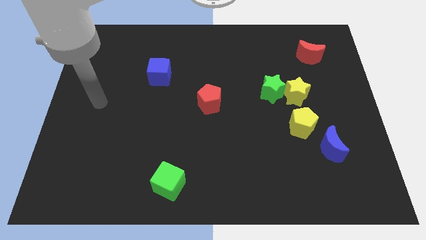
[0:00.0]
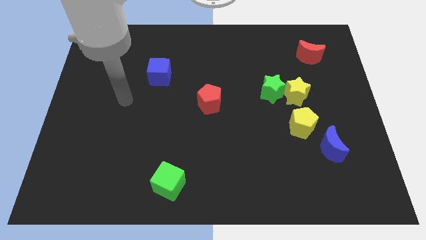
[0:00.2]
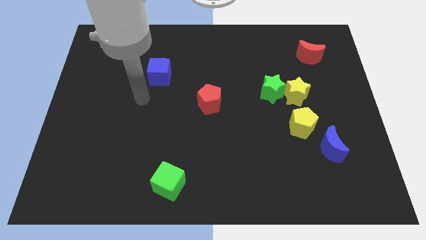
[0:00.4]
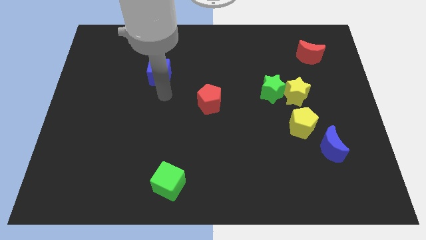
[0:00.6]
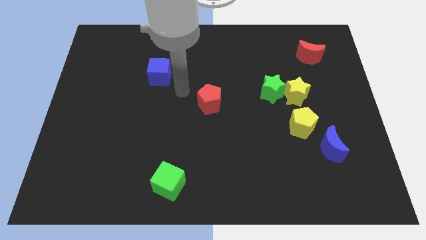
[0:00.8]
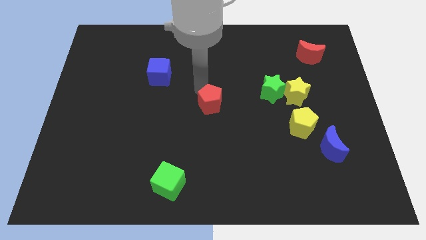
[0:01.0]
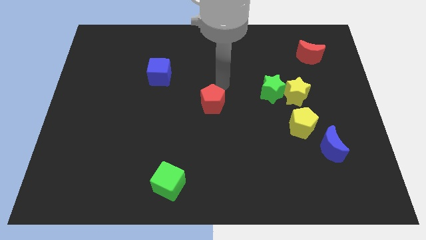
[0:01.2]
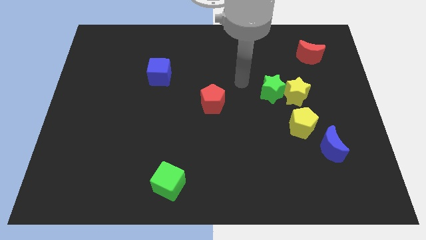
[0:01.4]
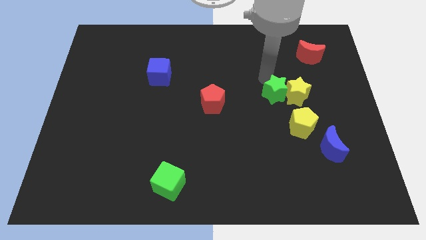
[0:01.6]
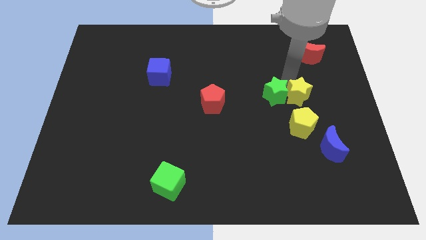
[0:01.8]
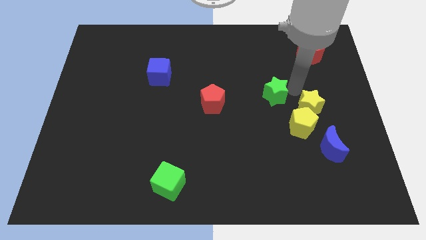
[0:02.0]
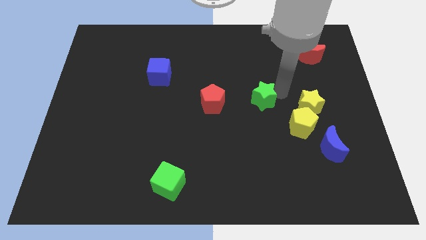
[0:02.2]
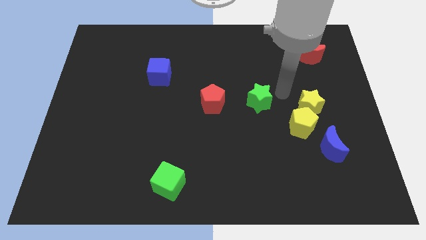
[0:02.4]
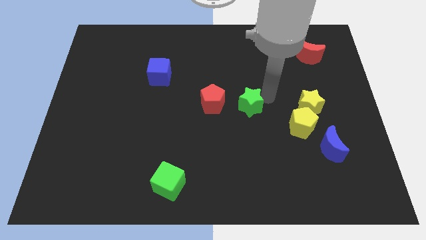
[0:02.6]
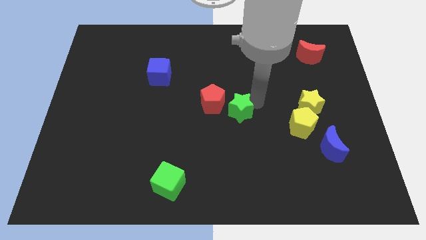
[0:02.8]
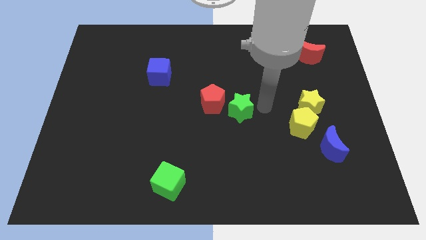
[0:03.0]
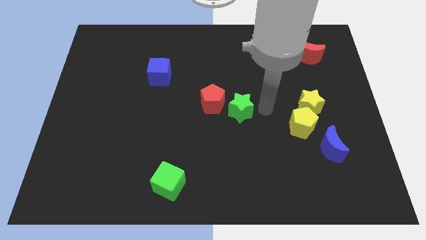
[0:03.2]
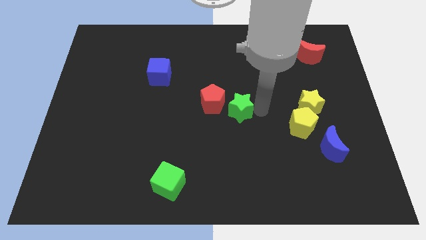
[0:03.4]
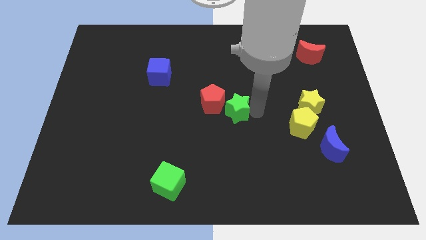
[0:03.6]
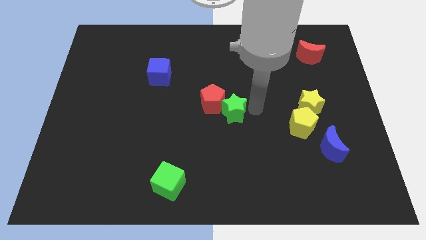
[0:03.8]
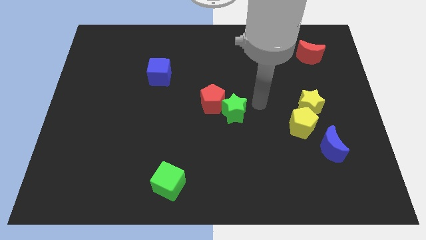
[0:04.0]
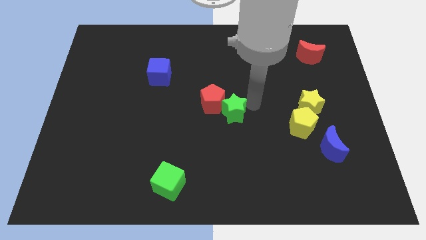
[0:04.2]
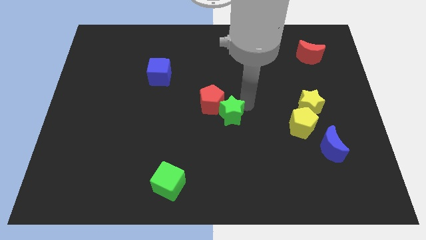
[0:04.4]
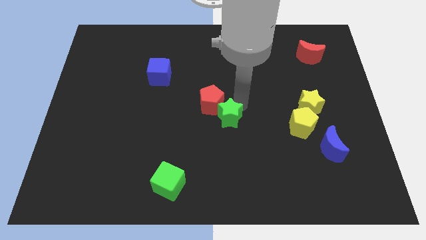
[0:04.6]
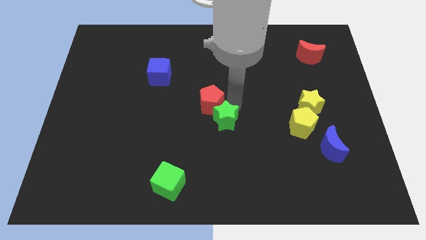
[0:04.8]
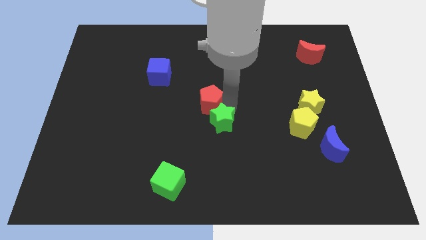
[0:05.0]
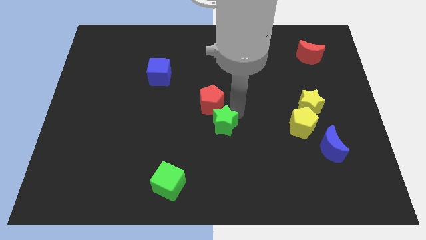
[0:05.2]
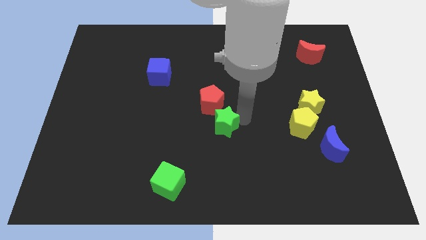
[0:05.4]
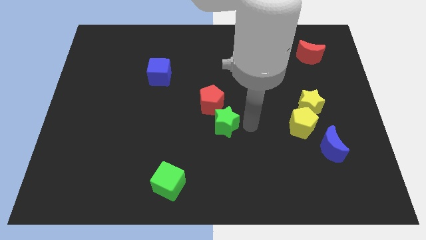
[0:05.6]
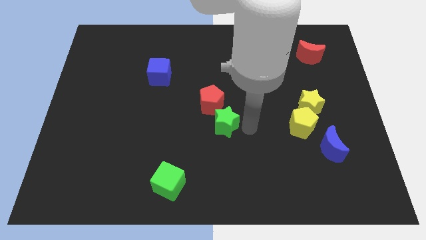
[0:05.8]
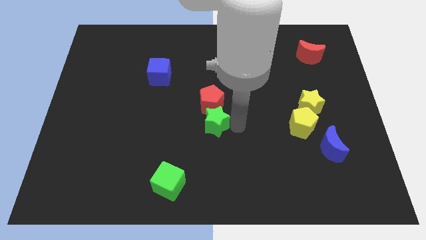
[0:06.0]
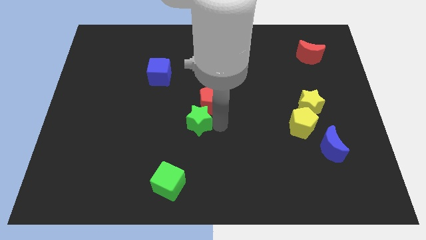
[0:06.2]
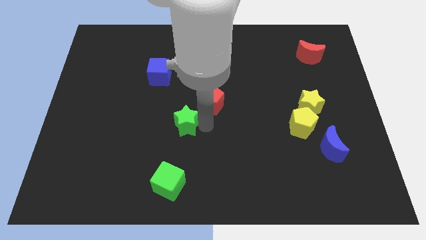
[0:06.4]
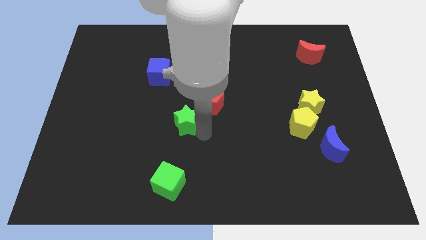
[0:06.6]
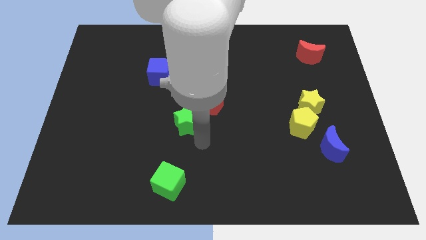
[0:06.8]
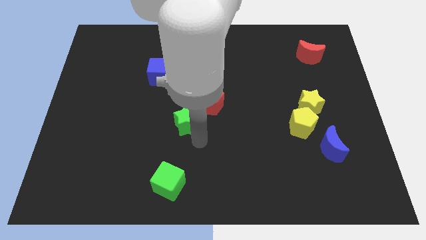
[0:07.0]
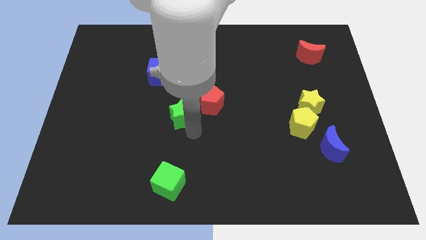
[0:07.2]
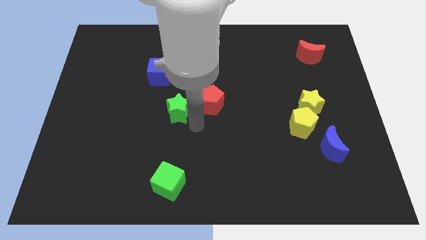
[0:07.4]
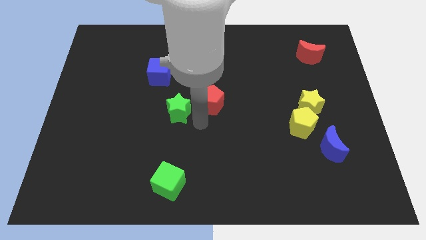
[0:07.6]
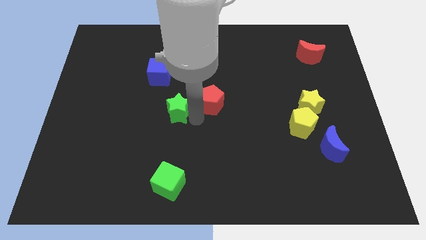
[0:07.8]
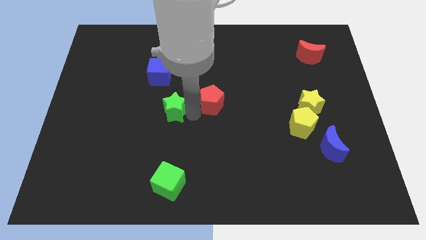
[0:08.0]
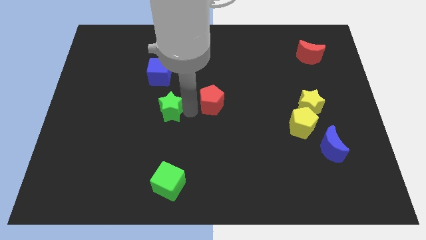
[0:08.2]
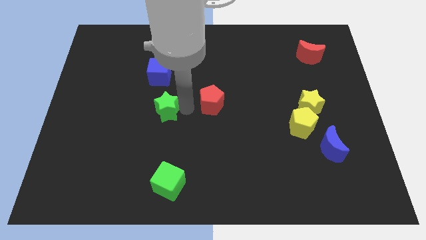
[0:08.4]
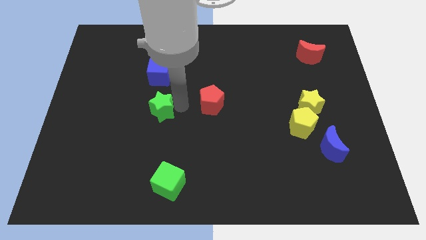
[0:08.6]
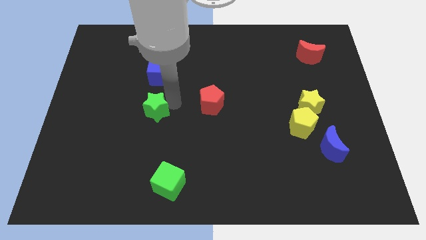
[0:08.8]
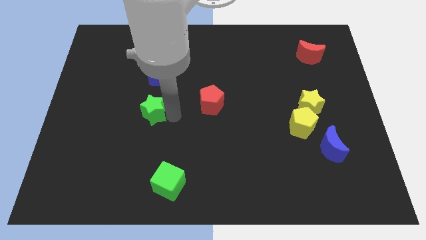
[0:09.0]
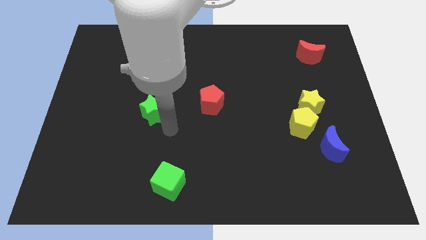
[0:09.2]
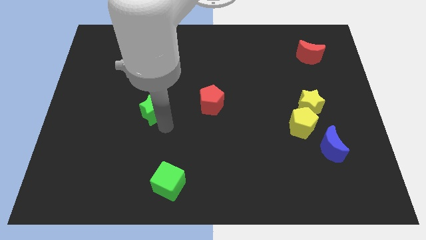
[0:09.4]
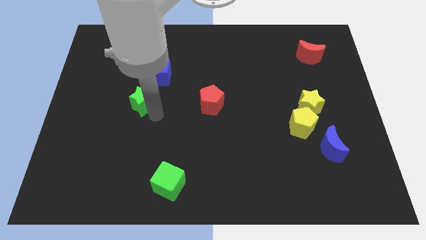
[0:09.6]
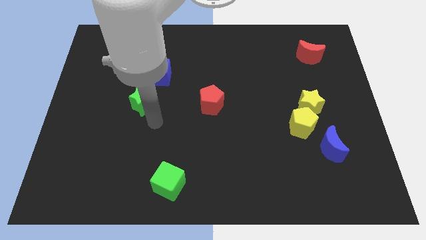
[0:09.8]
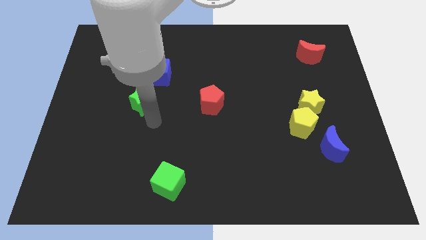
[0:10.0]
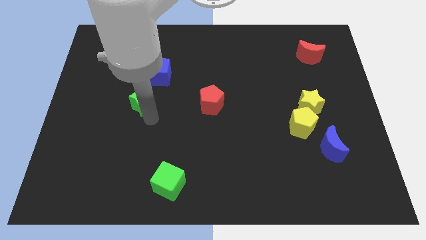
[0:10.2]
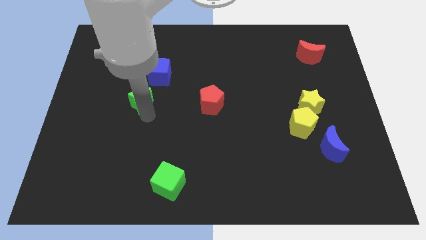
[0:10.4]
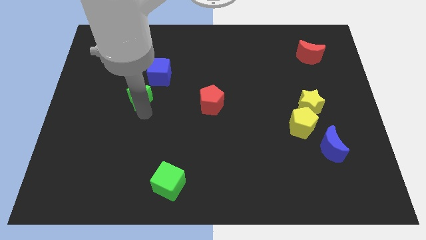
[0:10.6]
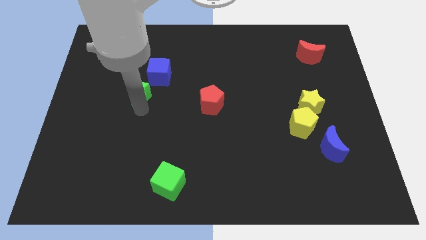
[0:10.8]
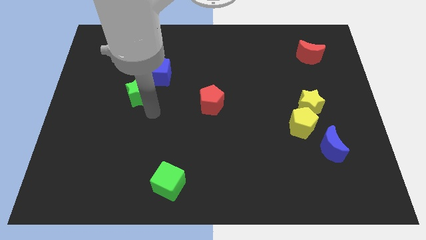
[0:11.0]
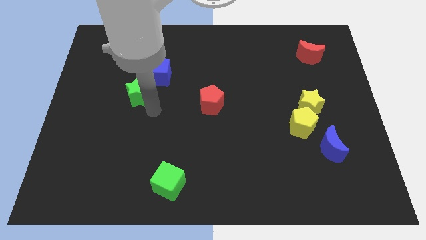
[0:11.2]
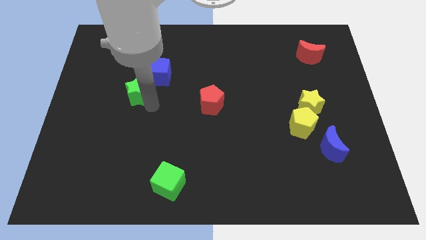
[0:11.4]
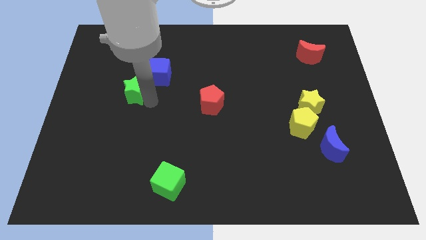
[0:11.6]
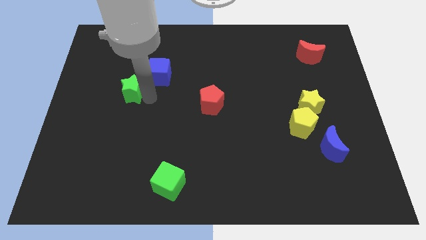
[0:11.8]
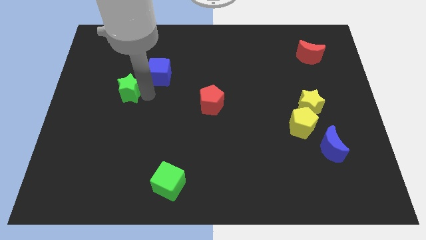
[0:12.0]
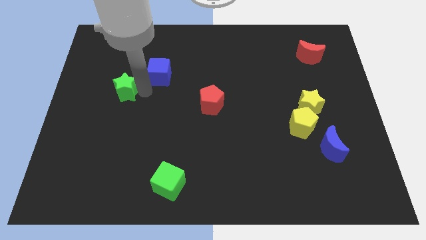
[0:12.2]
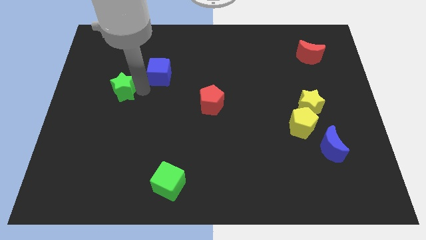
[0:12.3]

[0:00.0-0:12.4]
put the green star just left of the blue cube

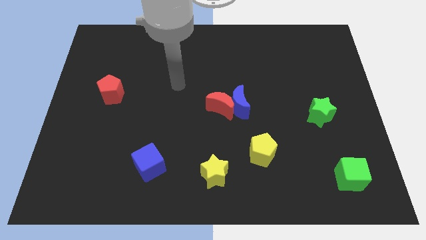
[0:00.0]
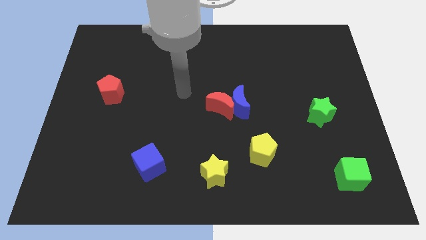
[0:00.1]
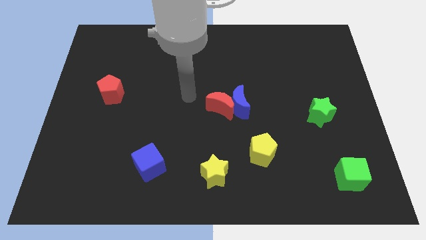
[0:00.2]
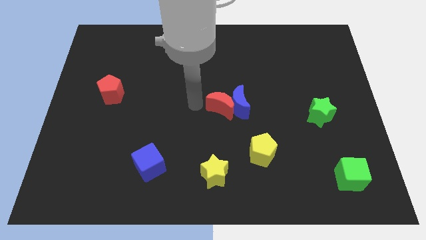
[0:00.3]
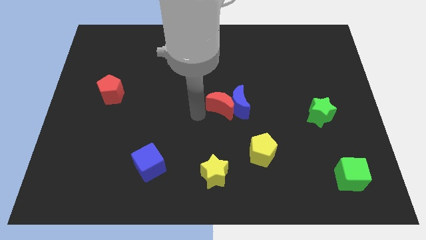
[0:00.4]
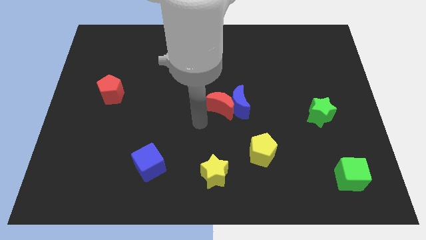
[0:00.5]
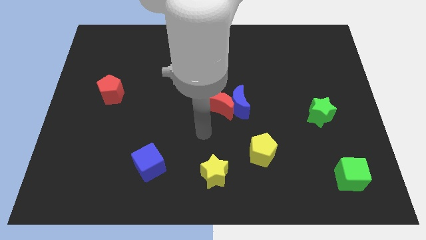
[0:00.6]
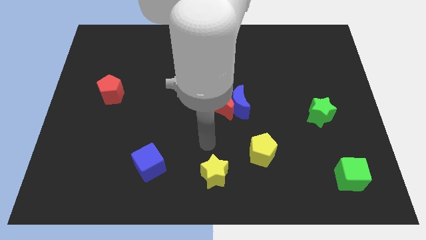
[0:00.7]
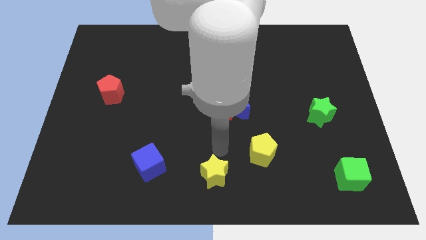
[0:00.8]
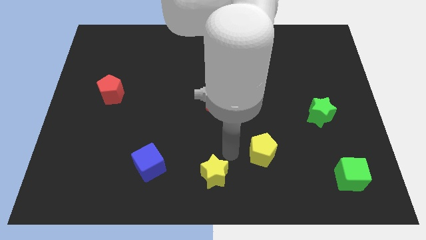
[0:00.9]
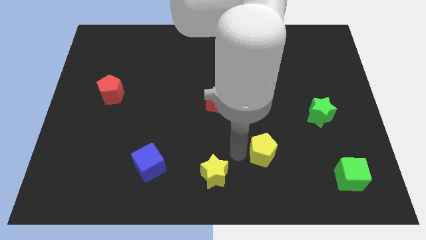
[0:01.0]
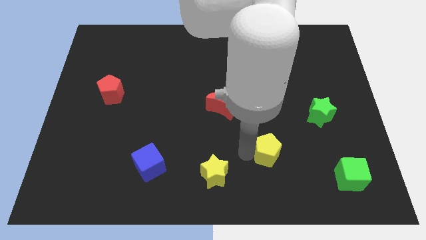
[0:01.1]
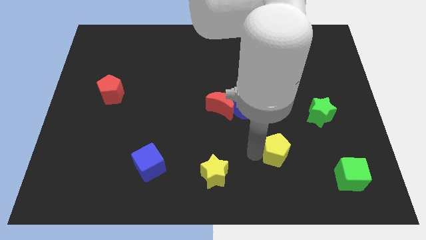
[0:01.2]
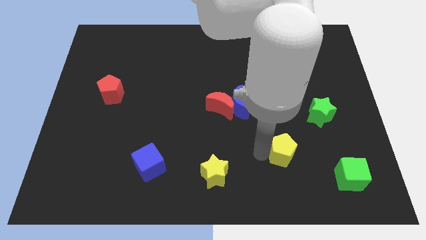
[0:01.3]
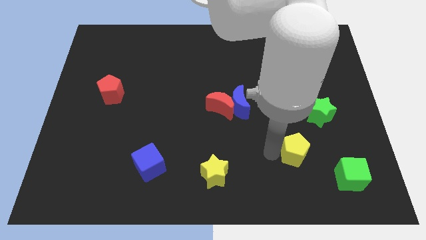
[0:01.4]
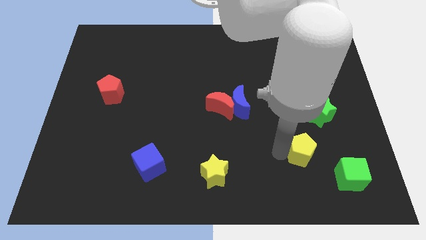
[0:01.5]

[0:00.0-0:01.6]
put the yellow pentagon diagonally up and to the left of the green cube
